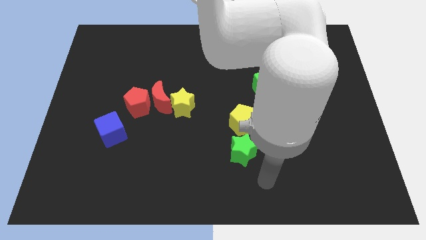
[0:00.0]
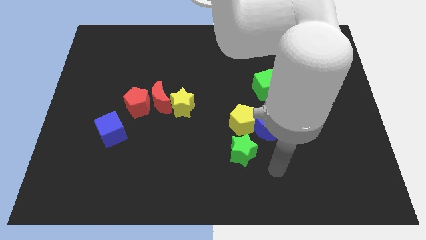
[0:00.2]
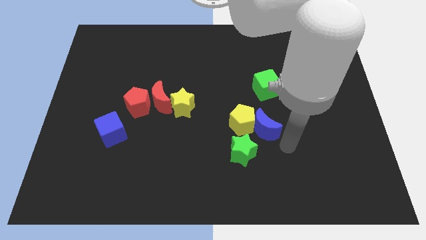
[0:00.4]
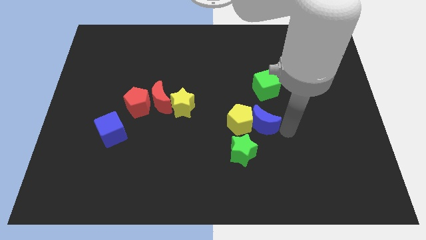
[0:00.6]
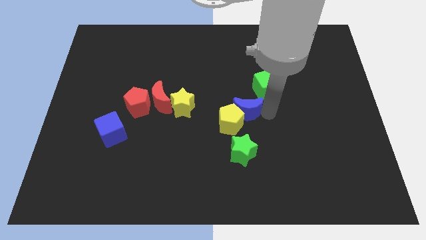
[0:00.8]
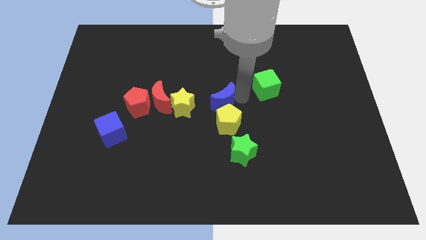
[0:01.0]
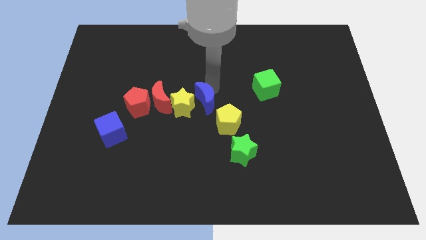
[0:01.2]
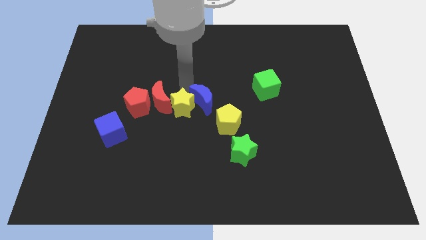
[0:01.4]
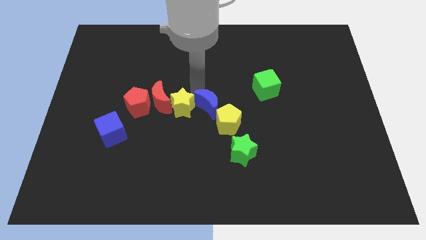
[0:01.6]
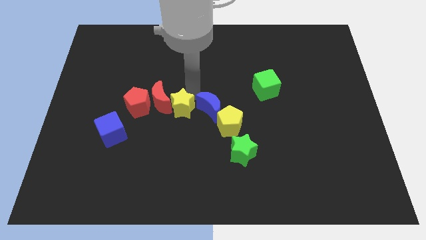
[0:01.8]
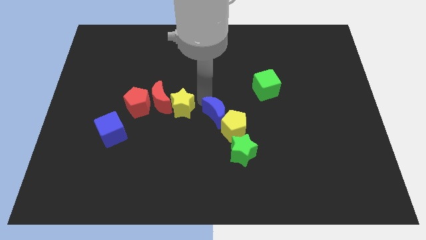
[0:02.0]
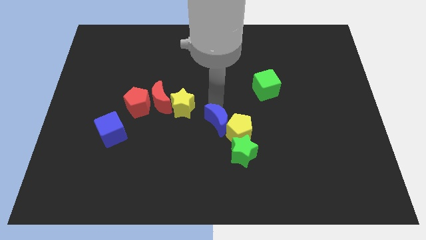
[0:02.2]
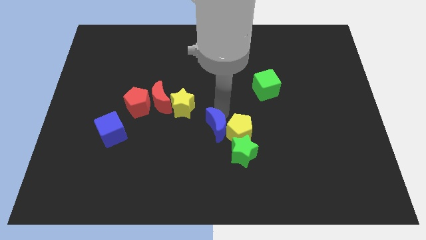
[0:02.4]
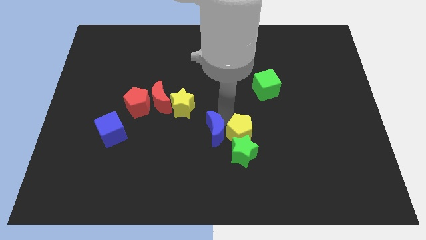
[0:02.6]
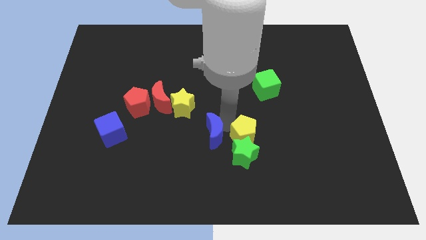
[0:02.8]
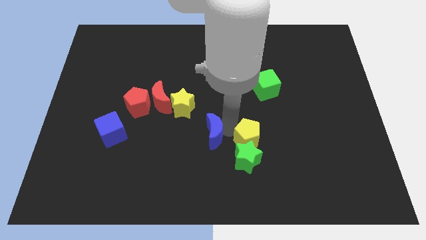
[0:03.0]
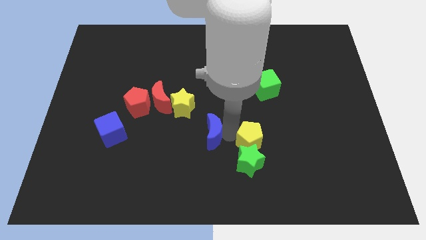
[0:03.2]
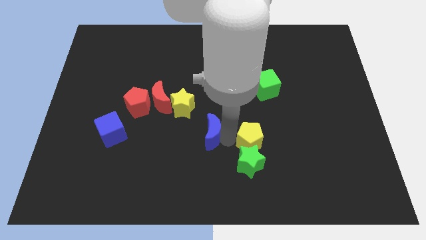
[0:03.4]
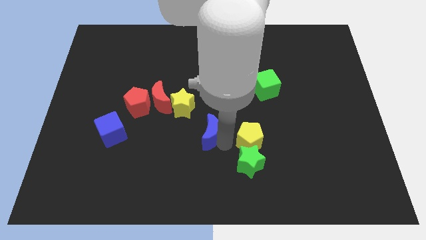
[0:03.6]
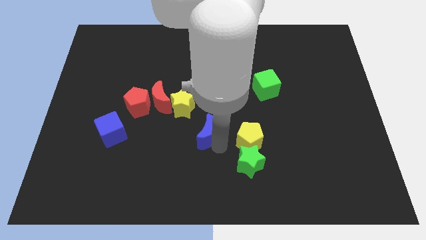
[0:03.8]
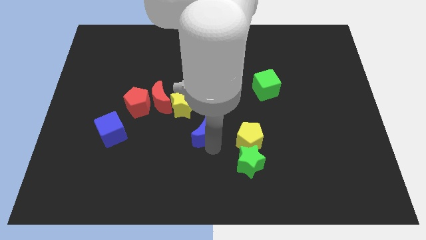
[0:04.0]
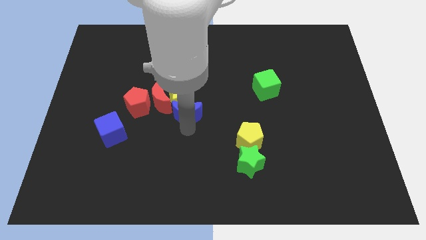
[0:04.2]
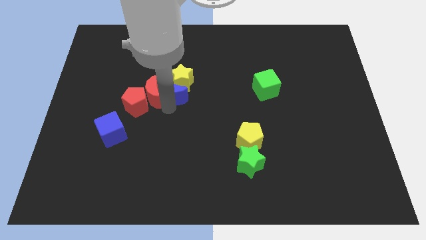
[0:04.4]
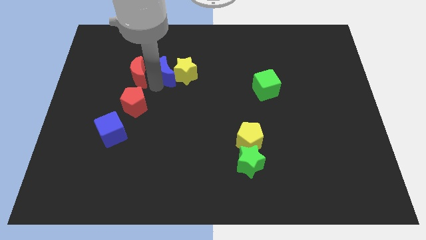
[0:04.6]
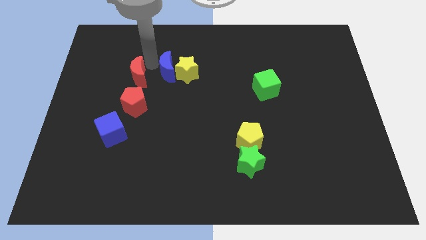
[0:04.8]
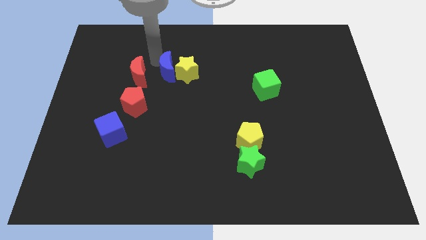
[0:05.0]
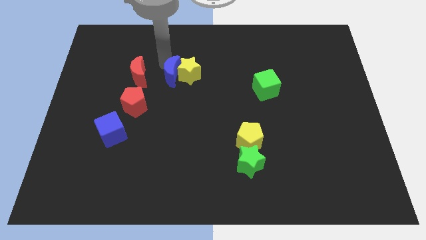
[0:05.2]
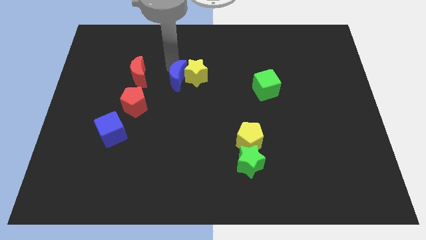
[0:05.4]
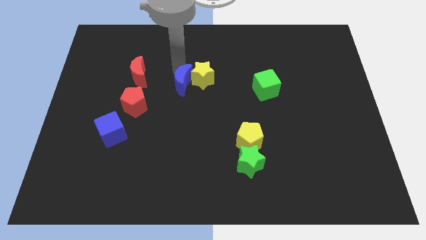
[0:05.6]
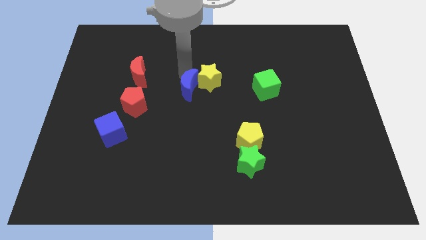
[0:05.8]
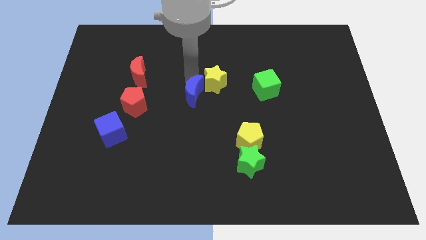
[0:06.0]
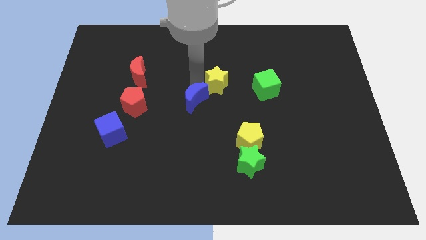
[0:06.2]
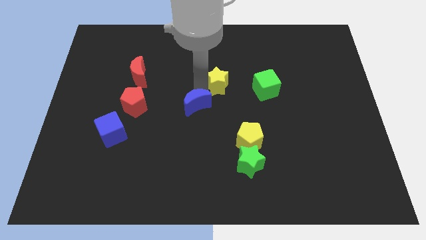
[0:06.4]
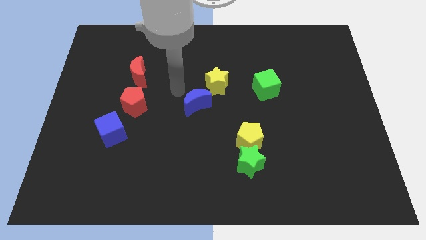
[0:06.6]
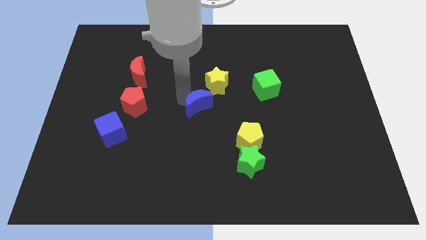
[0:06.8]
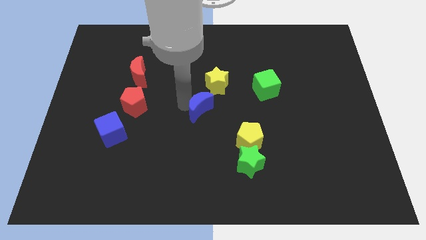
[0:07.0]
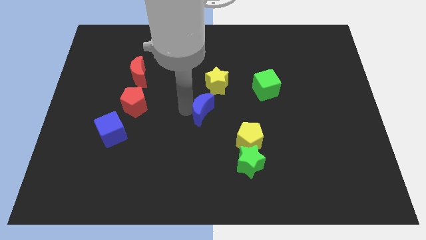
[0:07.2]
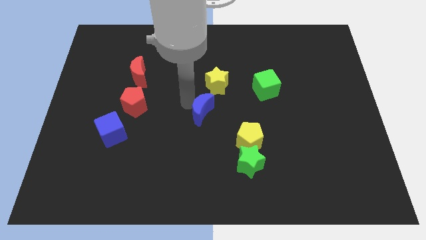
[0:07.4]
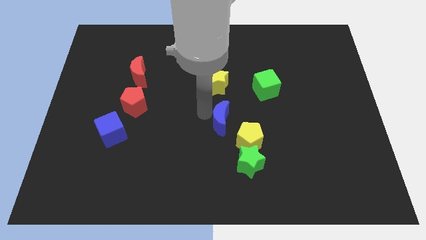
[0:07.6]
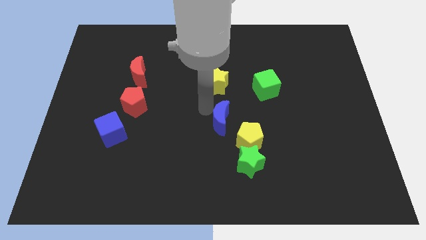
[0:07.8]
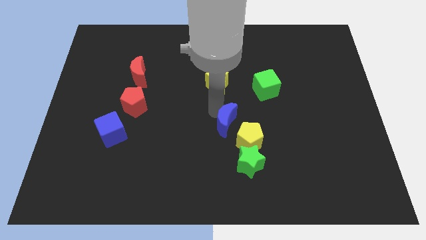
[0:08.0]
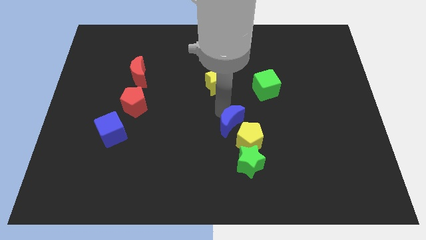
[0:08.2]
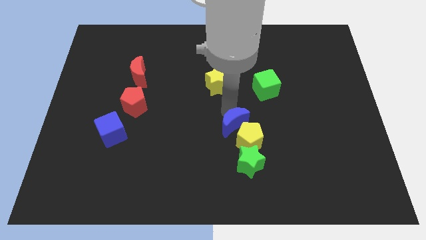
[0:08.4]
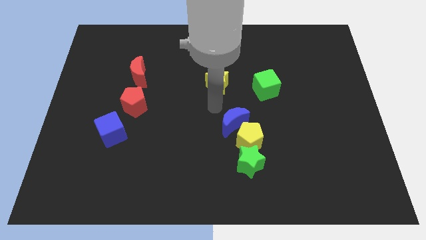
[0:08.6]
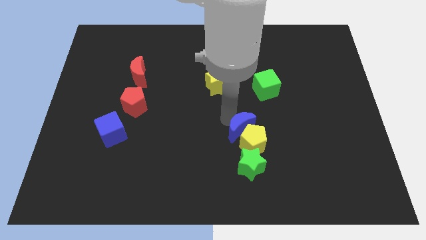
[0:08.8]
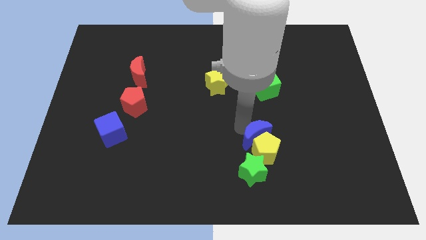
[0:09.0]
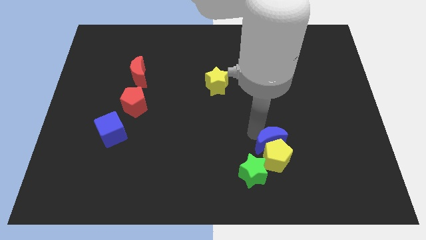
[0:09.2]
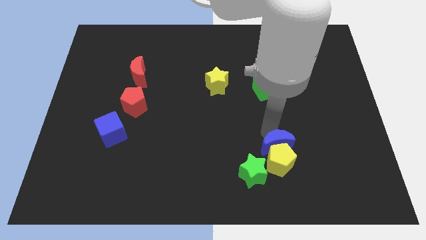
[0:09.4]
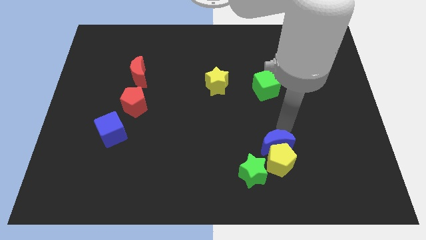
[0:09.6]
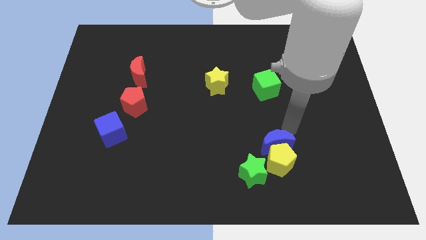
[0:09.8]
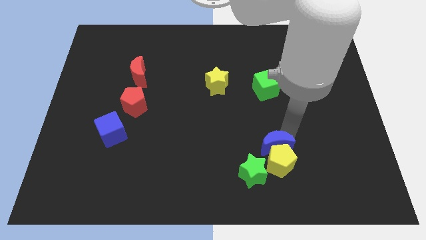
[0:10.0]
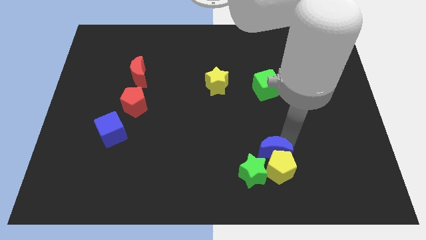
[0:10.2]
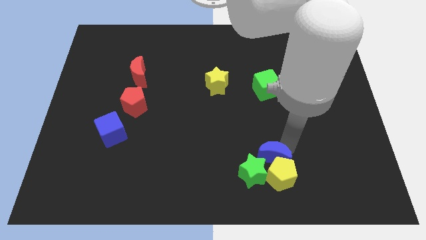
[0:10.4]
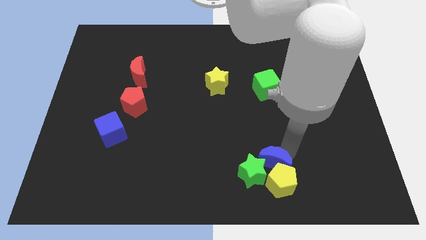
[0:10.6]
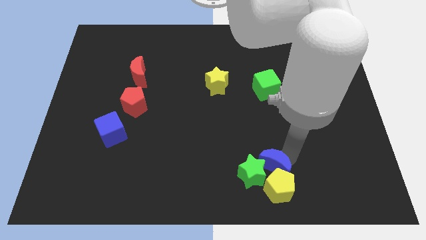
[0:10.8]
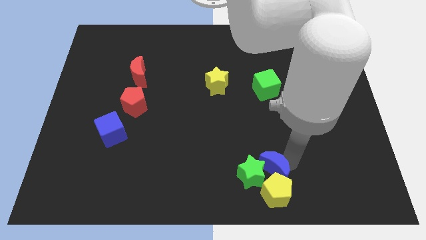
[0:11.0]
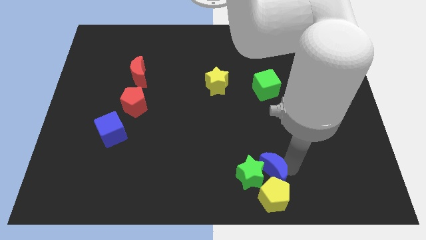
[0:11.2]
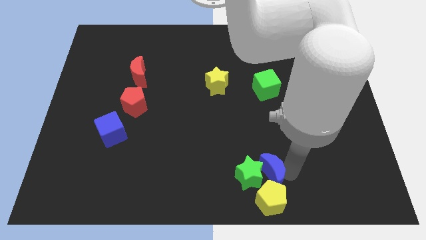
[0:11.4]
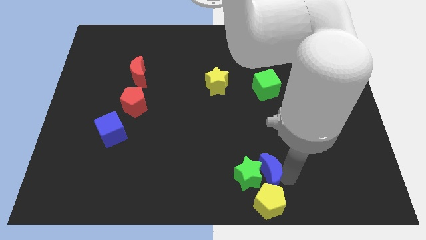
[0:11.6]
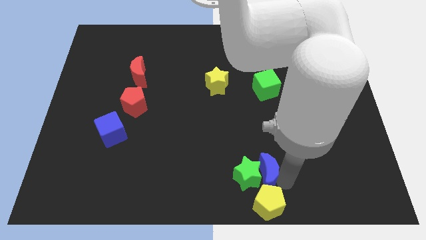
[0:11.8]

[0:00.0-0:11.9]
put the blue moon to the bottom
